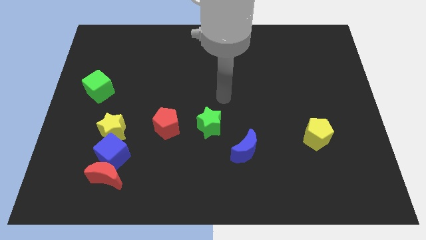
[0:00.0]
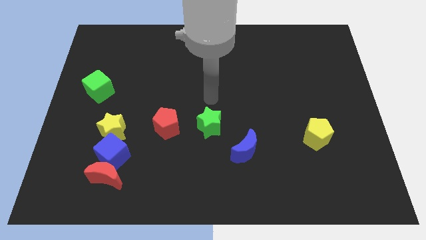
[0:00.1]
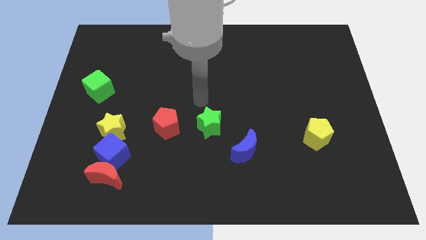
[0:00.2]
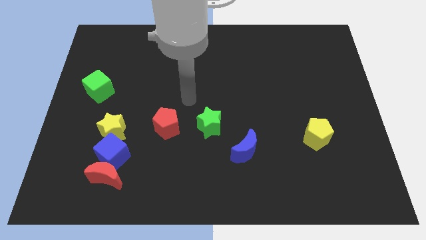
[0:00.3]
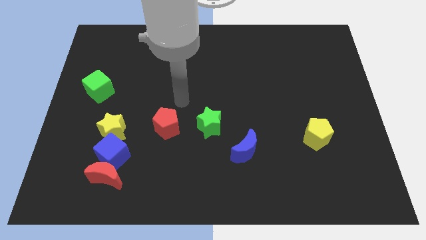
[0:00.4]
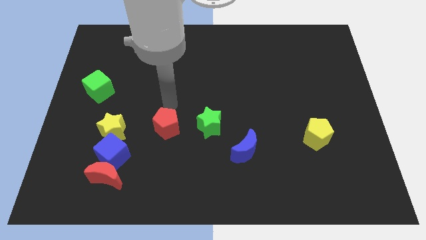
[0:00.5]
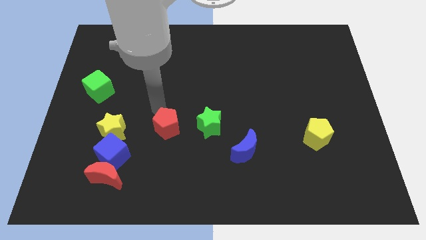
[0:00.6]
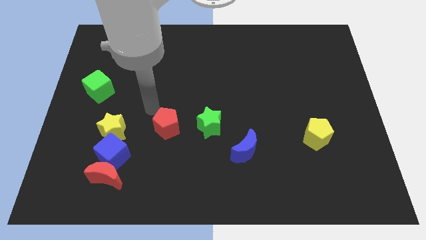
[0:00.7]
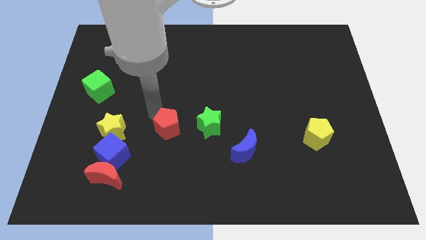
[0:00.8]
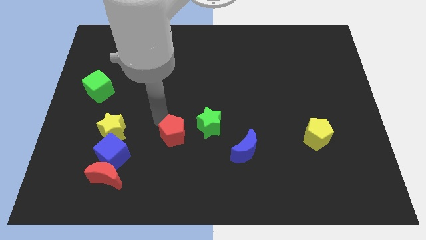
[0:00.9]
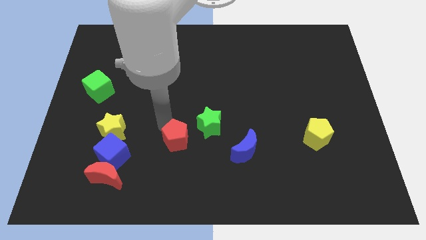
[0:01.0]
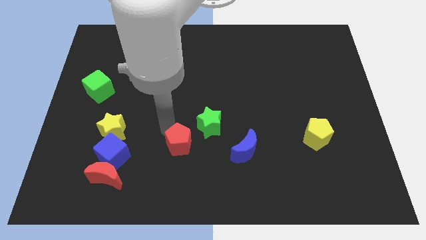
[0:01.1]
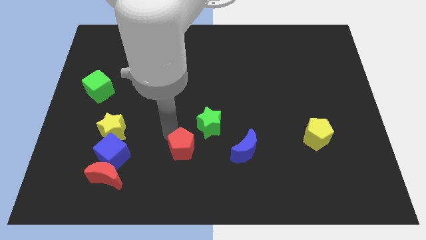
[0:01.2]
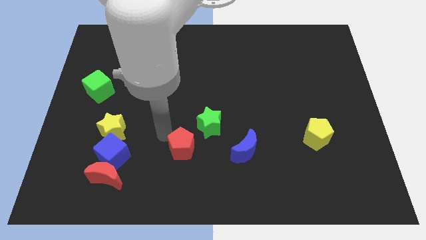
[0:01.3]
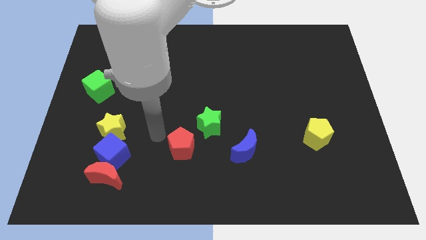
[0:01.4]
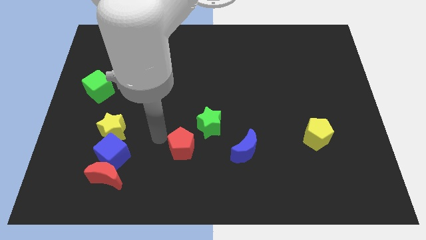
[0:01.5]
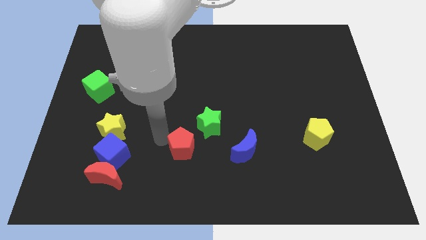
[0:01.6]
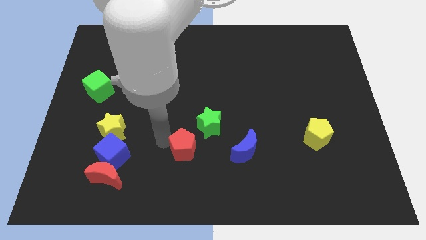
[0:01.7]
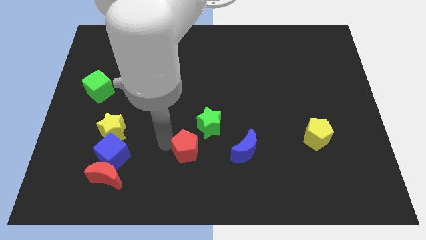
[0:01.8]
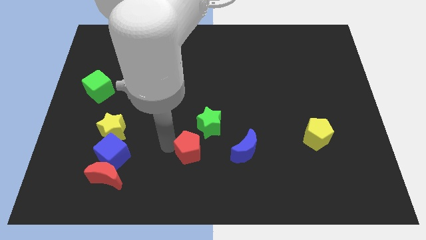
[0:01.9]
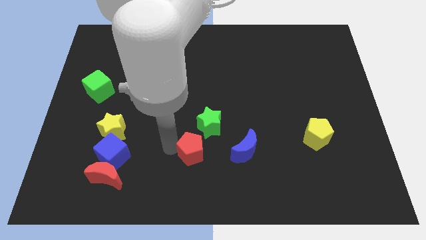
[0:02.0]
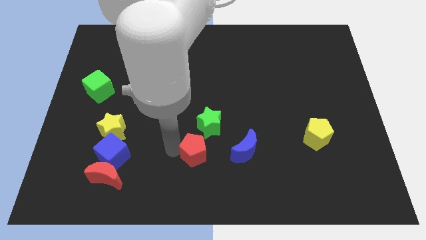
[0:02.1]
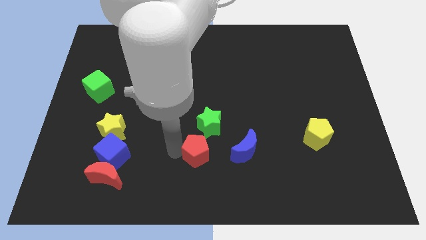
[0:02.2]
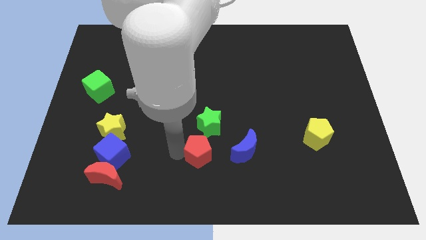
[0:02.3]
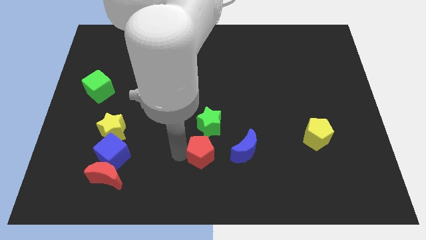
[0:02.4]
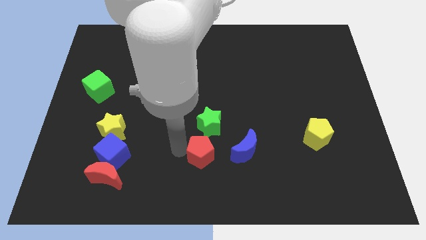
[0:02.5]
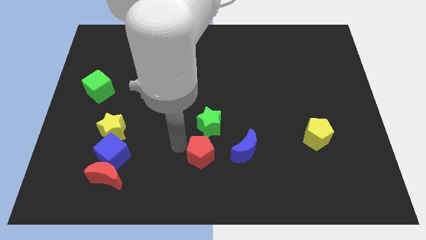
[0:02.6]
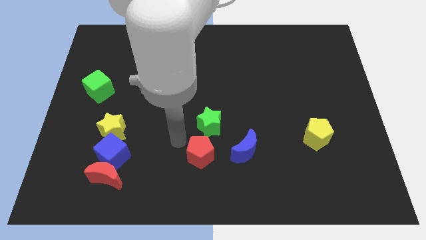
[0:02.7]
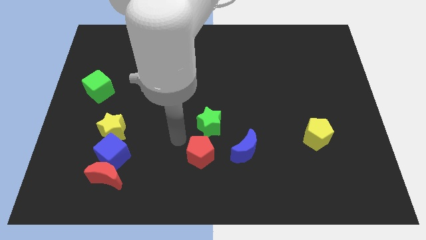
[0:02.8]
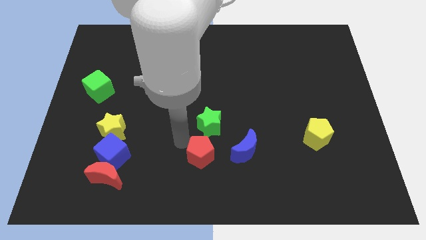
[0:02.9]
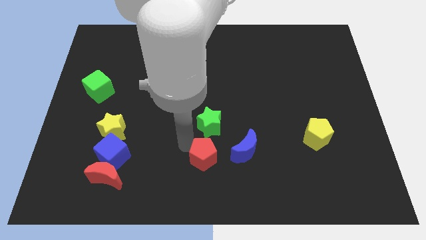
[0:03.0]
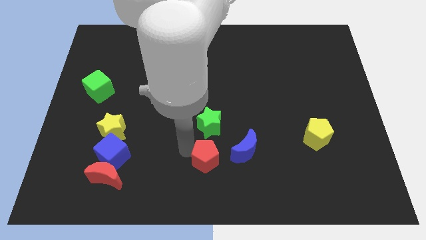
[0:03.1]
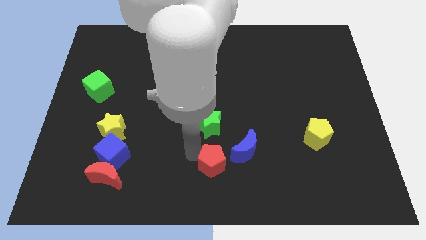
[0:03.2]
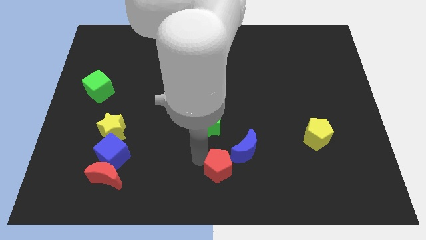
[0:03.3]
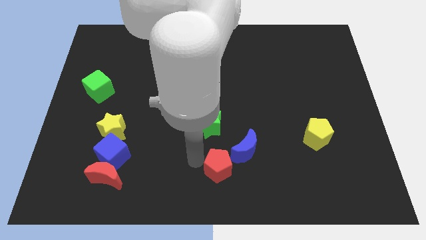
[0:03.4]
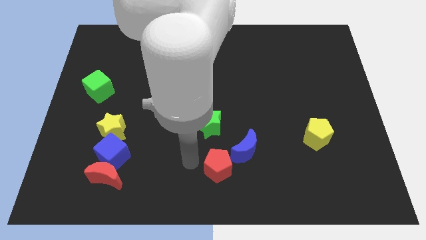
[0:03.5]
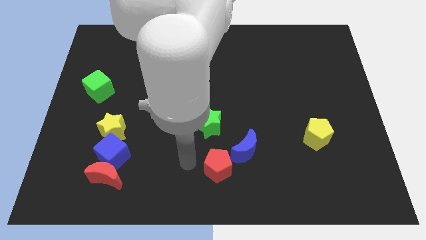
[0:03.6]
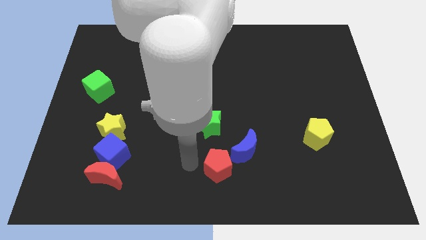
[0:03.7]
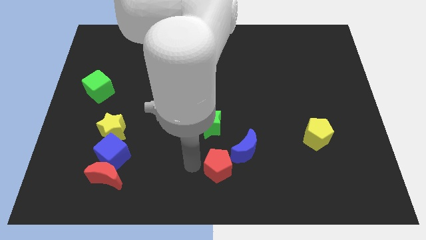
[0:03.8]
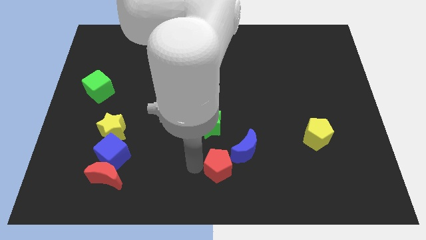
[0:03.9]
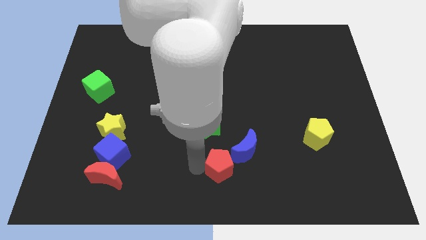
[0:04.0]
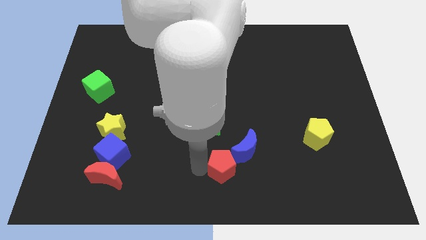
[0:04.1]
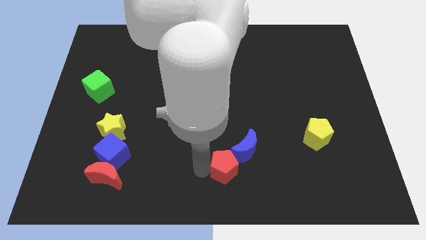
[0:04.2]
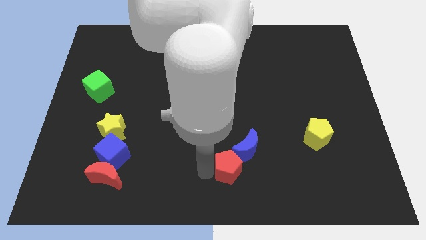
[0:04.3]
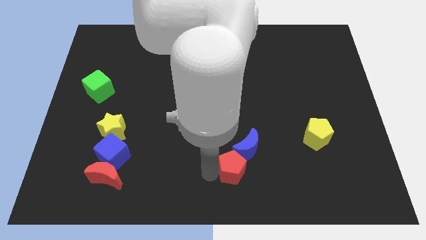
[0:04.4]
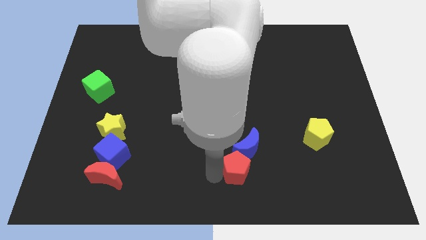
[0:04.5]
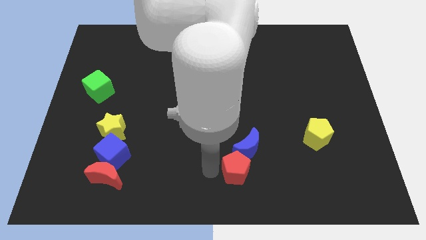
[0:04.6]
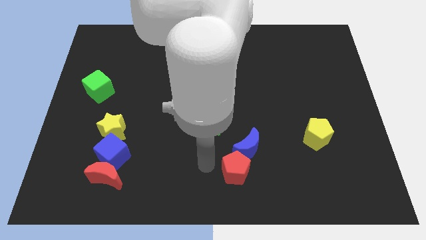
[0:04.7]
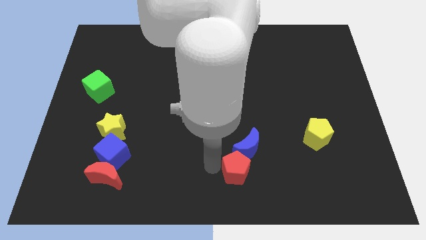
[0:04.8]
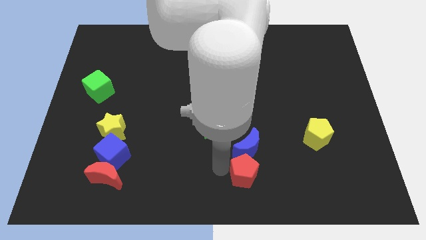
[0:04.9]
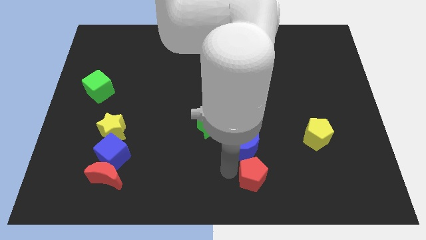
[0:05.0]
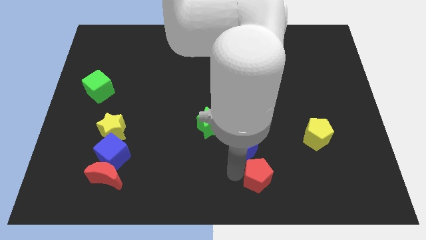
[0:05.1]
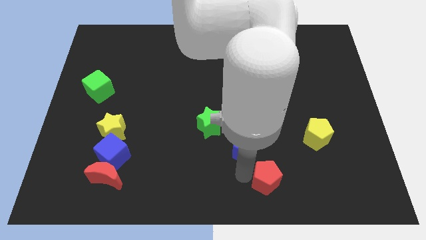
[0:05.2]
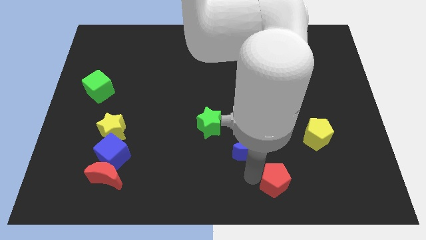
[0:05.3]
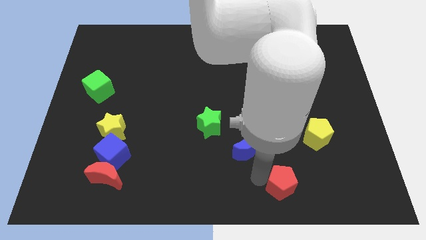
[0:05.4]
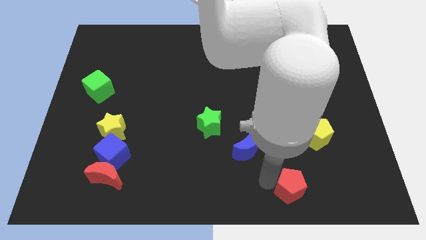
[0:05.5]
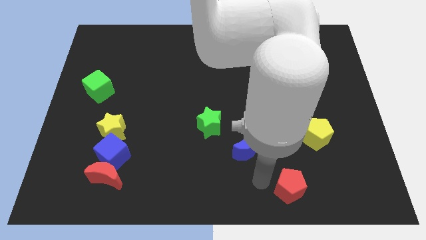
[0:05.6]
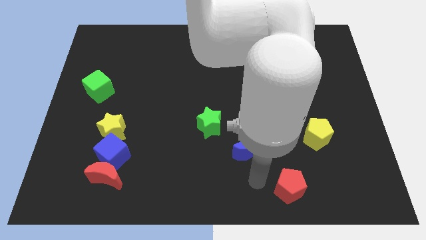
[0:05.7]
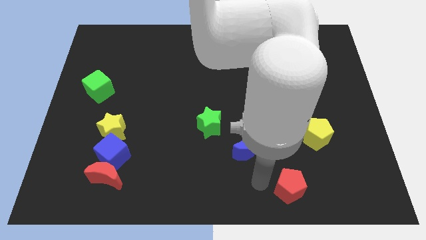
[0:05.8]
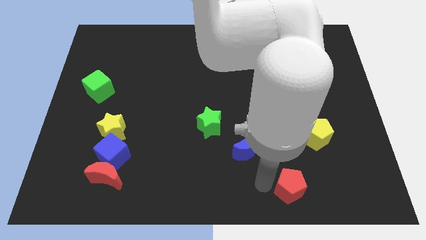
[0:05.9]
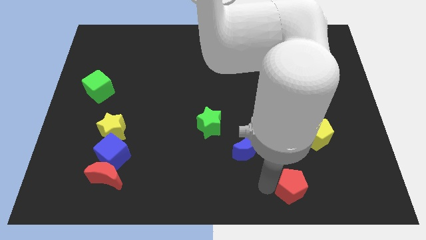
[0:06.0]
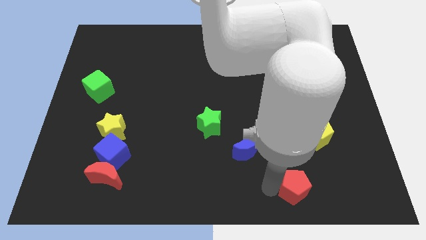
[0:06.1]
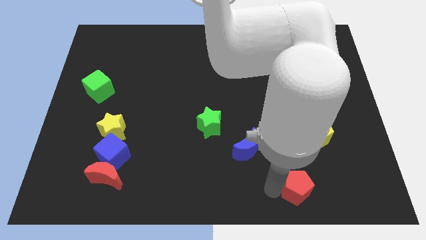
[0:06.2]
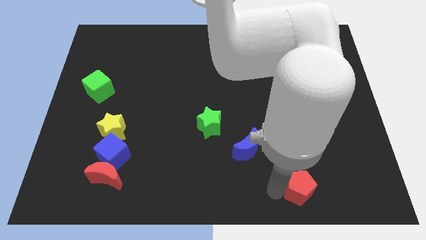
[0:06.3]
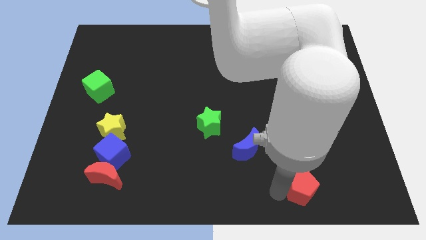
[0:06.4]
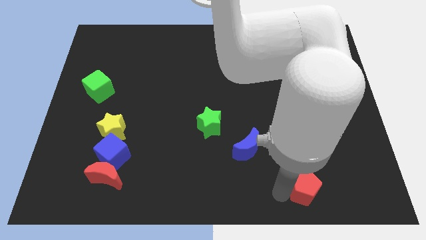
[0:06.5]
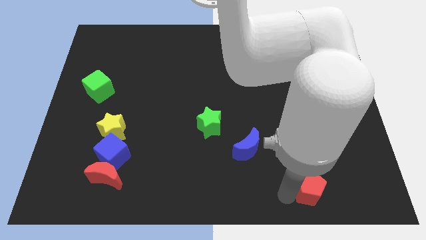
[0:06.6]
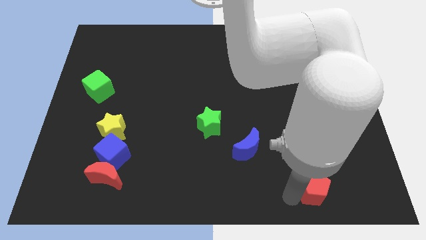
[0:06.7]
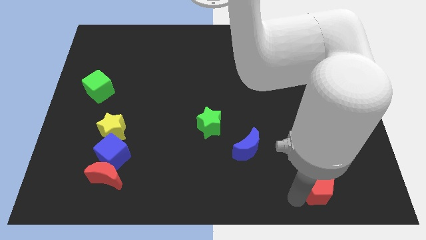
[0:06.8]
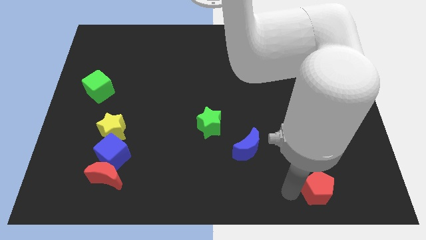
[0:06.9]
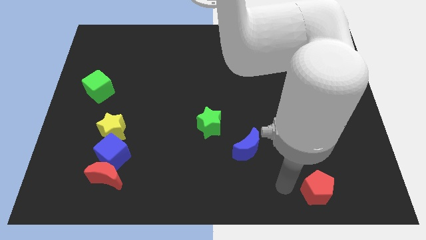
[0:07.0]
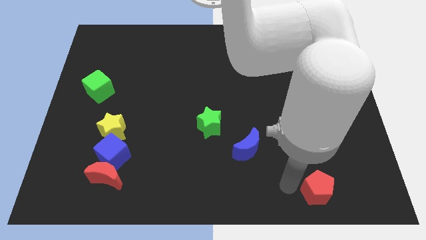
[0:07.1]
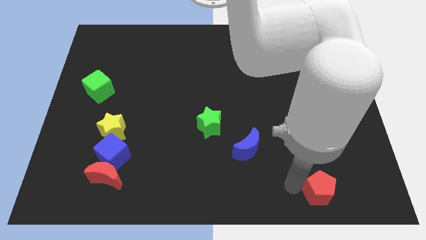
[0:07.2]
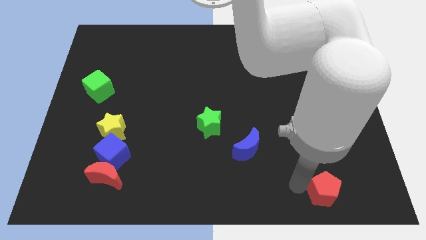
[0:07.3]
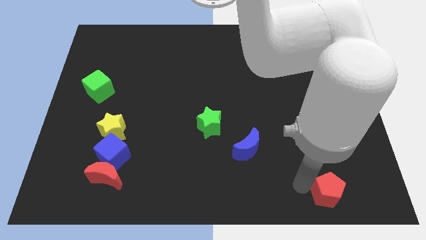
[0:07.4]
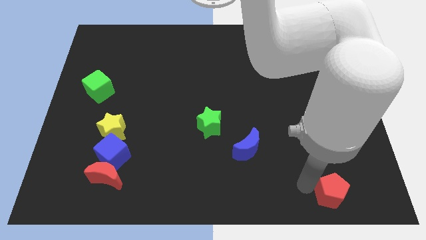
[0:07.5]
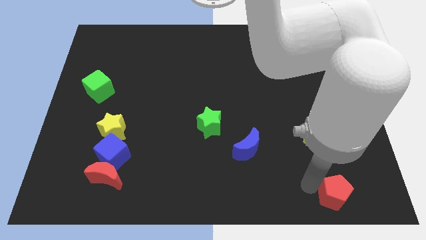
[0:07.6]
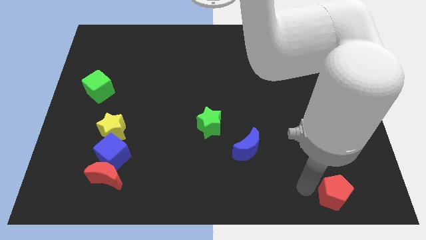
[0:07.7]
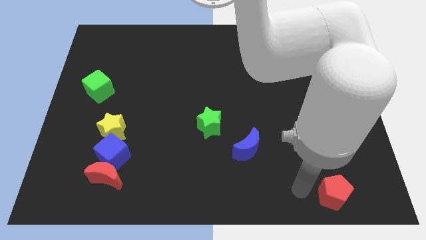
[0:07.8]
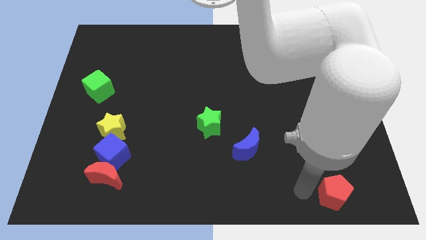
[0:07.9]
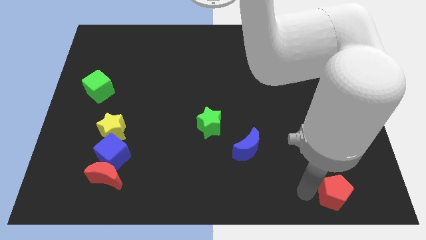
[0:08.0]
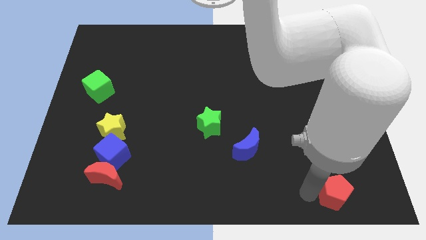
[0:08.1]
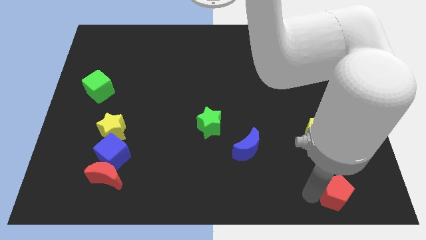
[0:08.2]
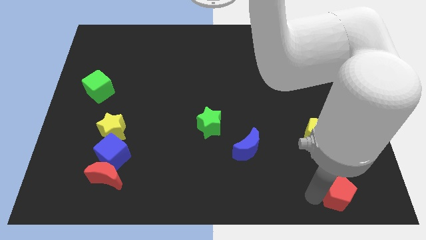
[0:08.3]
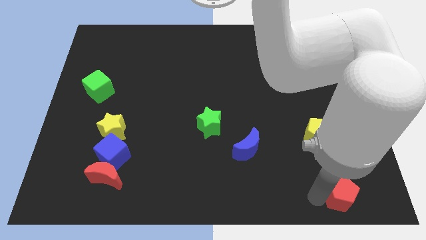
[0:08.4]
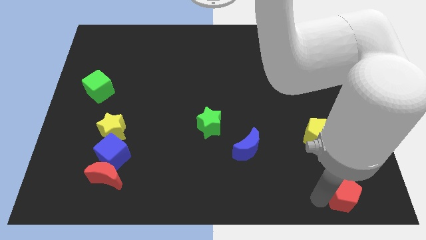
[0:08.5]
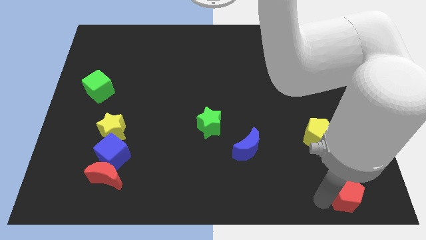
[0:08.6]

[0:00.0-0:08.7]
push the red pentagon to the bottom right corner
